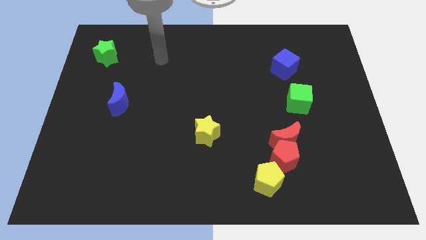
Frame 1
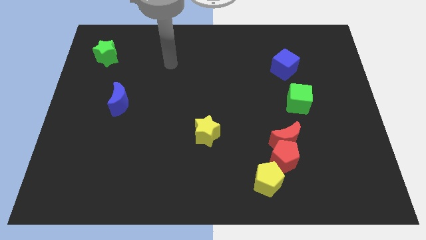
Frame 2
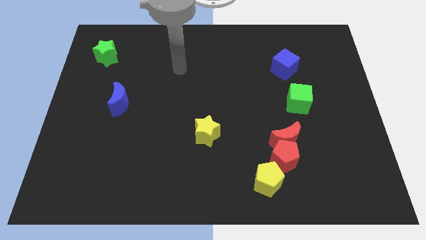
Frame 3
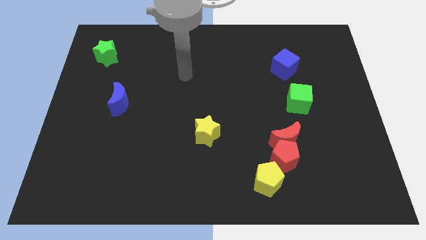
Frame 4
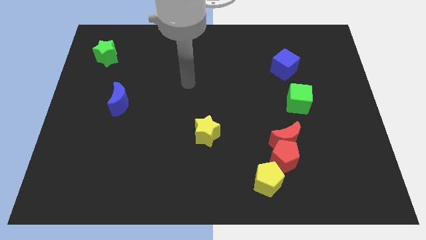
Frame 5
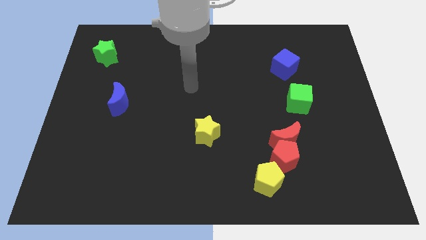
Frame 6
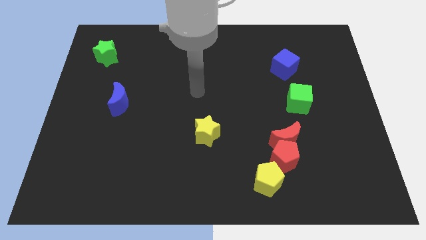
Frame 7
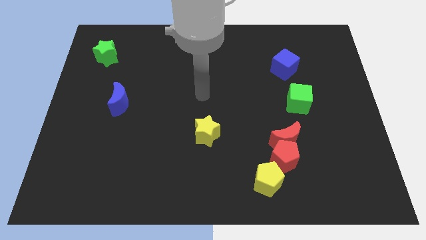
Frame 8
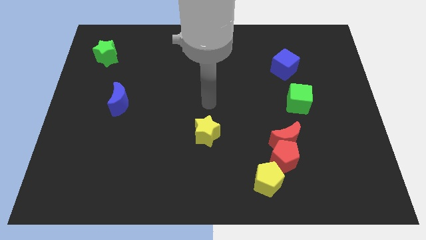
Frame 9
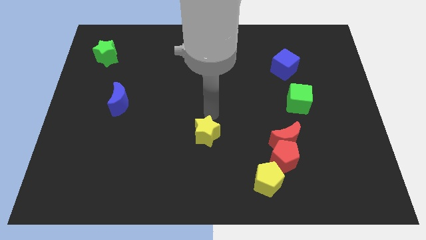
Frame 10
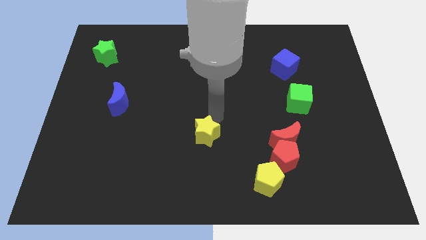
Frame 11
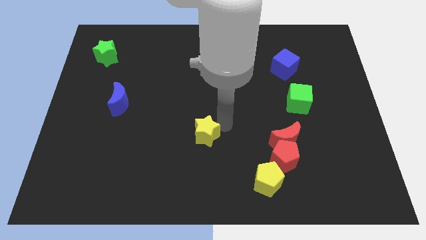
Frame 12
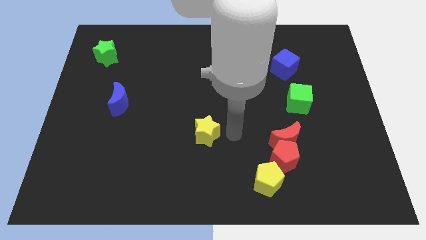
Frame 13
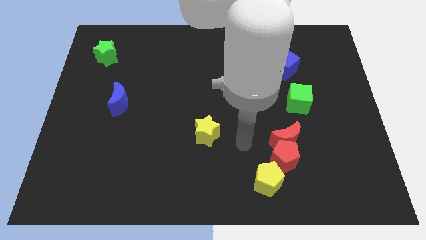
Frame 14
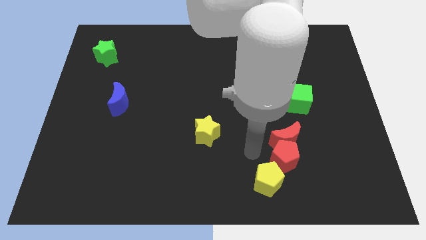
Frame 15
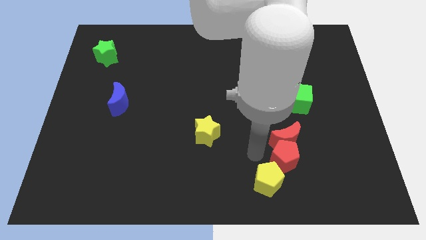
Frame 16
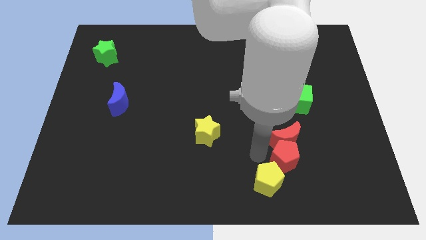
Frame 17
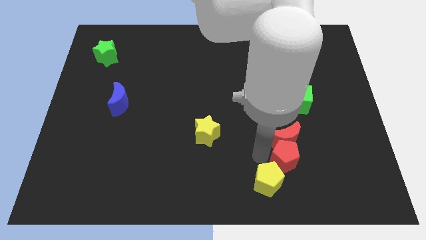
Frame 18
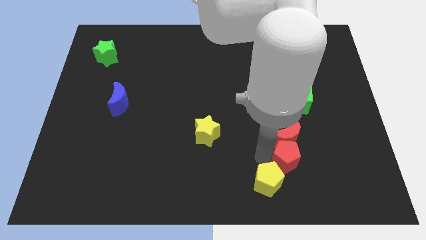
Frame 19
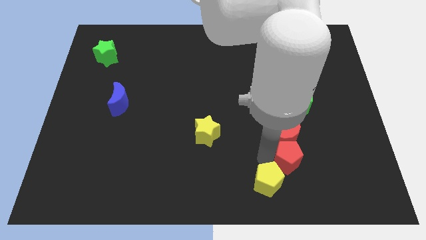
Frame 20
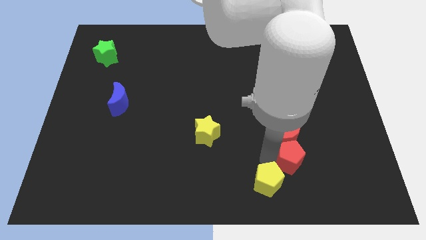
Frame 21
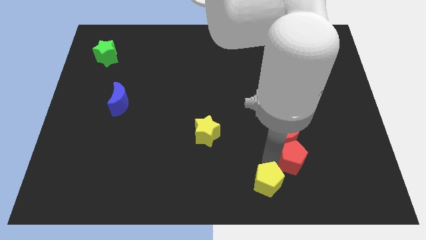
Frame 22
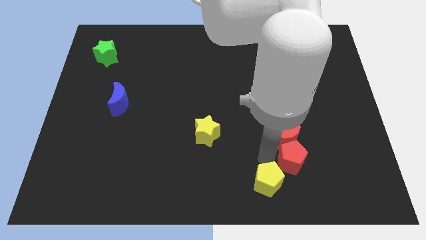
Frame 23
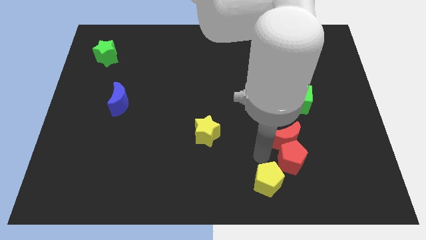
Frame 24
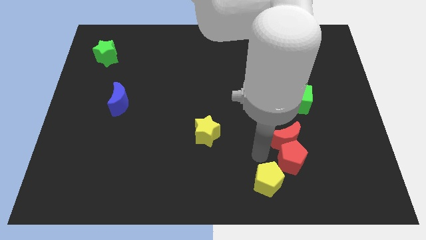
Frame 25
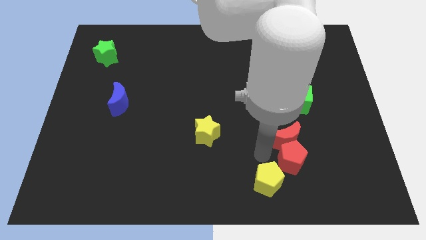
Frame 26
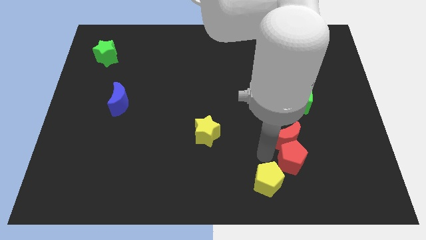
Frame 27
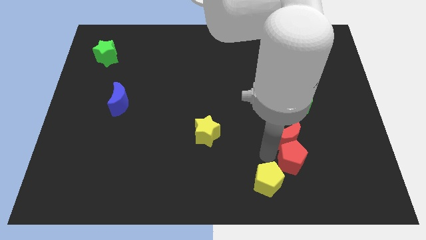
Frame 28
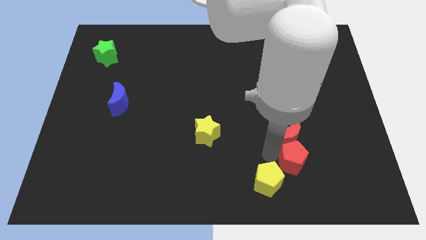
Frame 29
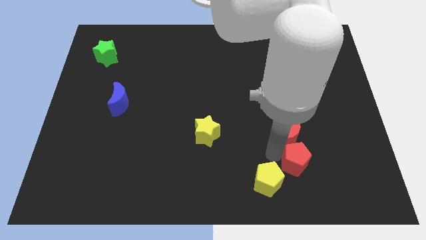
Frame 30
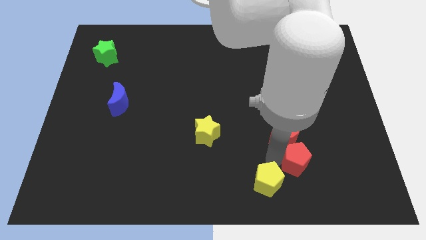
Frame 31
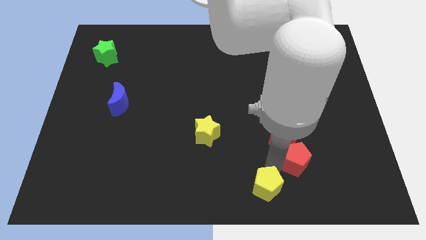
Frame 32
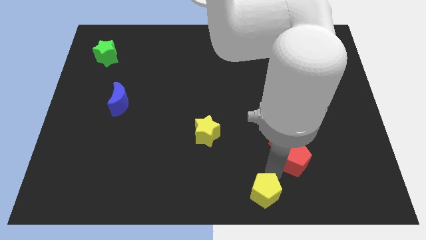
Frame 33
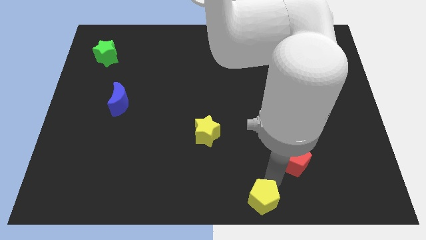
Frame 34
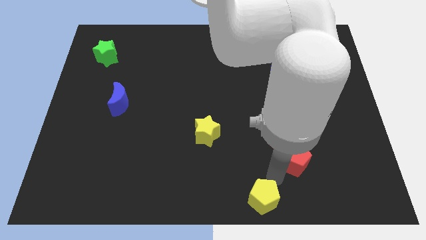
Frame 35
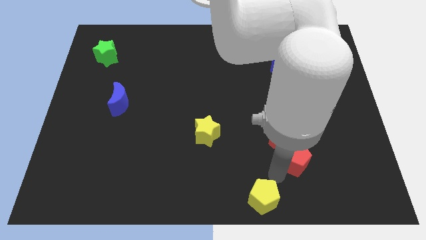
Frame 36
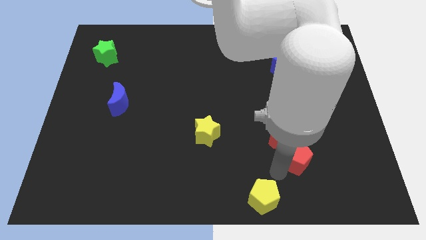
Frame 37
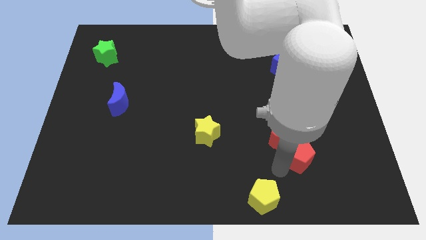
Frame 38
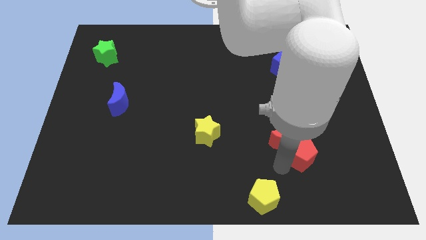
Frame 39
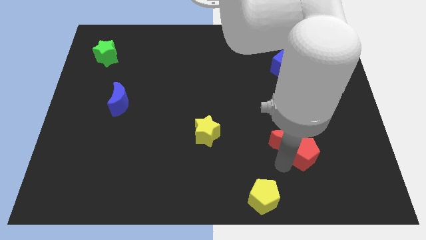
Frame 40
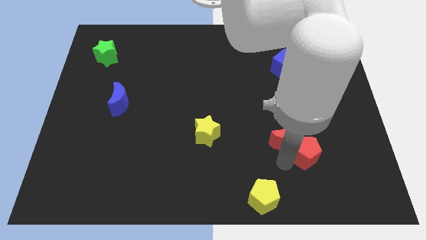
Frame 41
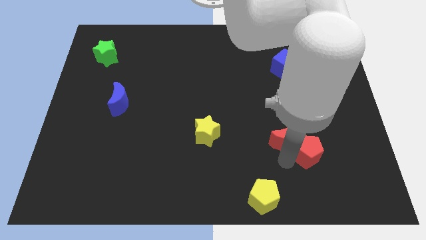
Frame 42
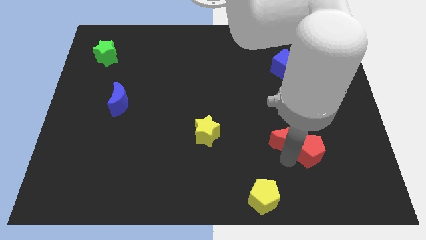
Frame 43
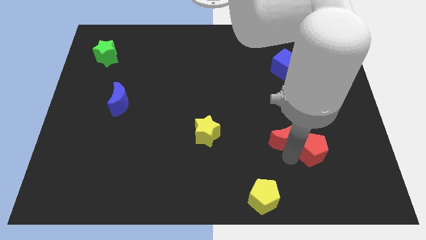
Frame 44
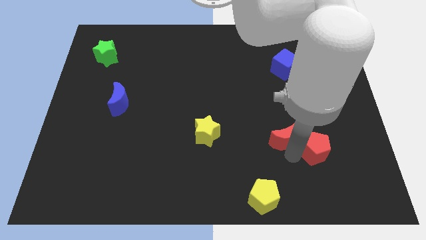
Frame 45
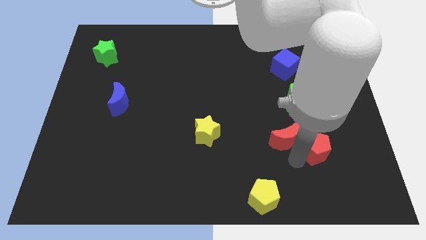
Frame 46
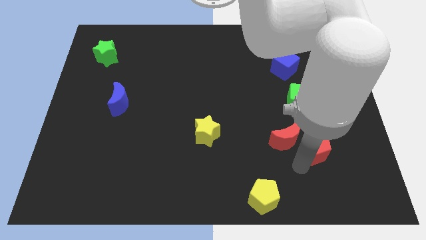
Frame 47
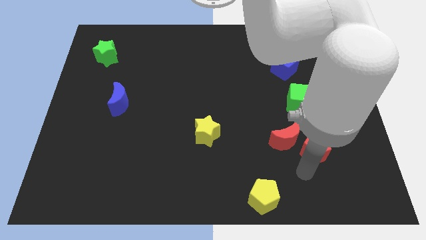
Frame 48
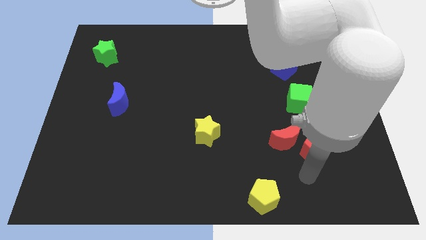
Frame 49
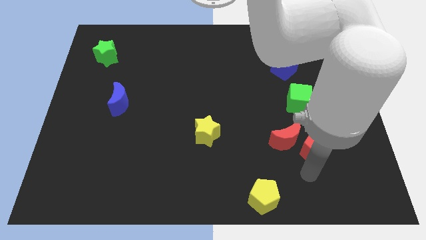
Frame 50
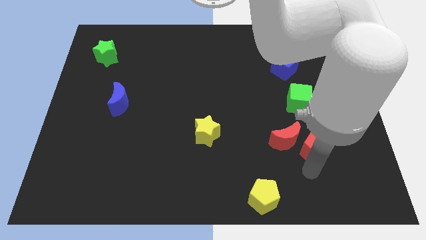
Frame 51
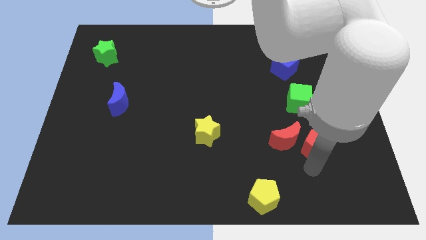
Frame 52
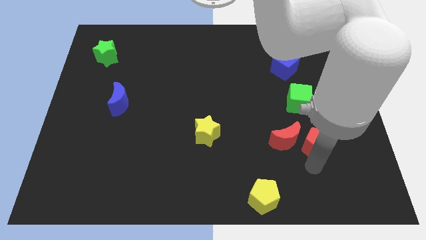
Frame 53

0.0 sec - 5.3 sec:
slightly push the red pentagon diagonally up and right

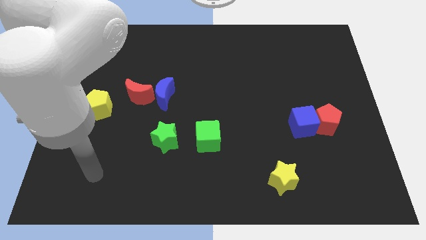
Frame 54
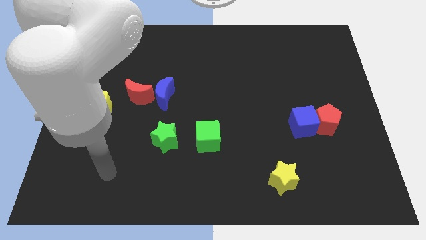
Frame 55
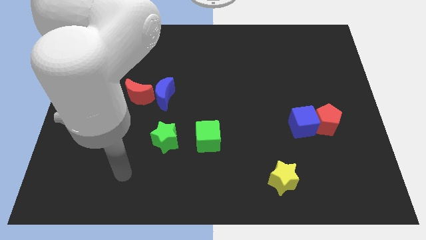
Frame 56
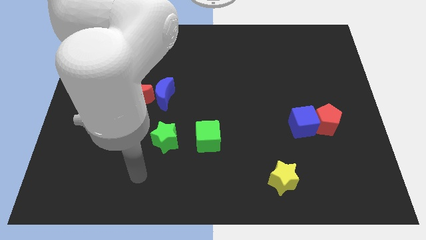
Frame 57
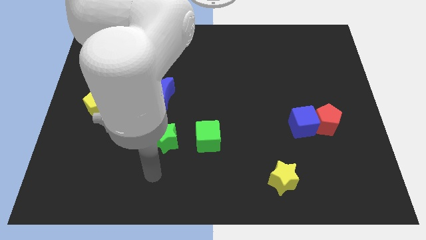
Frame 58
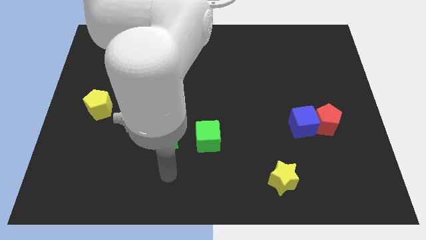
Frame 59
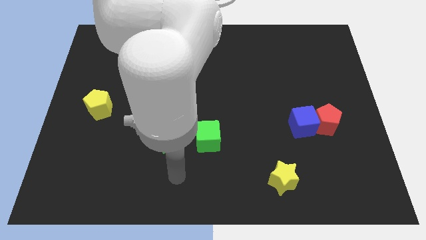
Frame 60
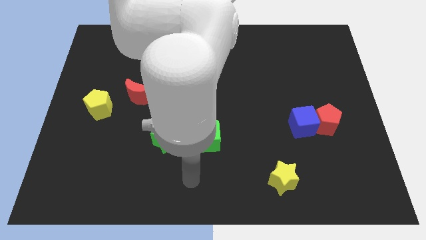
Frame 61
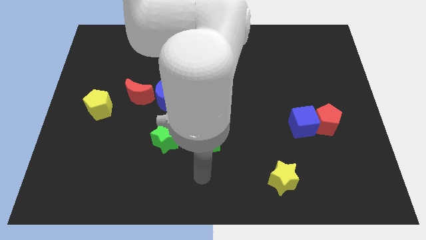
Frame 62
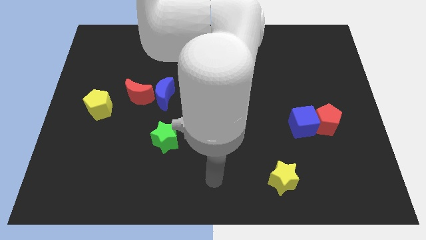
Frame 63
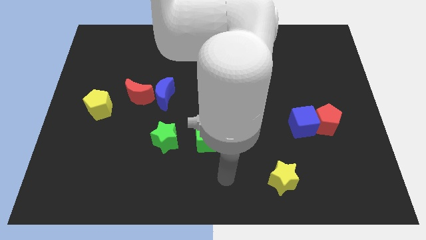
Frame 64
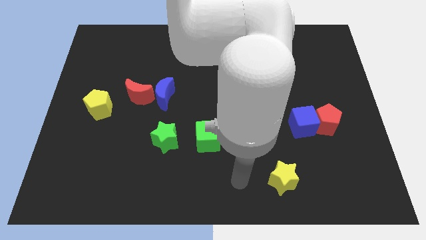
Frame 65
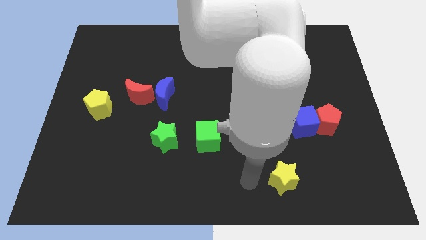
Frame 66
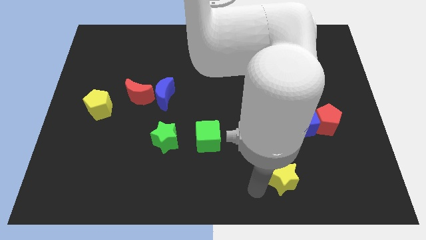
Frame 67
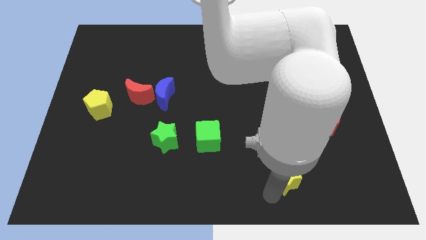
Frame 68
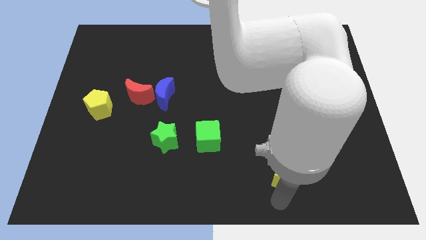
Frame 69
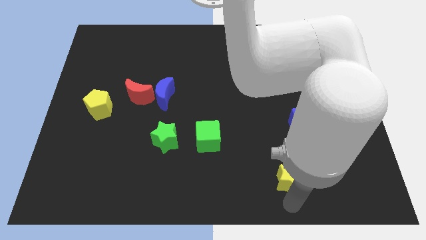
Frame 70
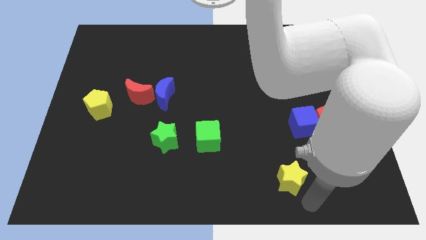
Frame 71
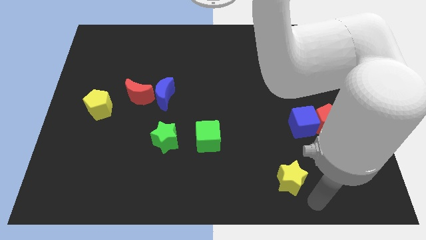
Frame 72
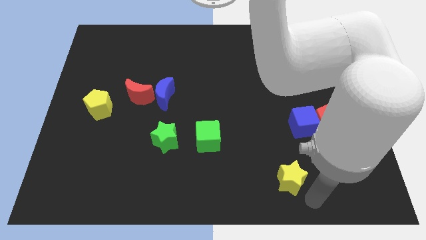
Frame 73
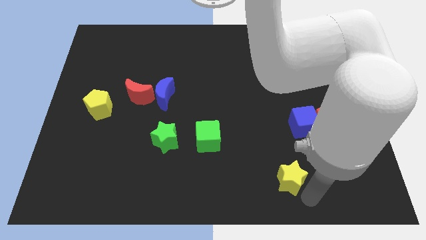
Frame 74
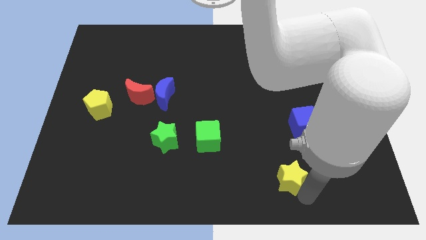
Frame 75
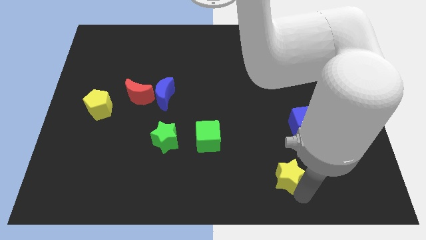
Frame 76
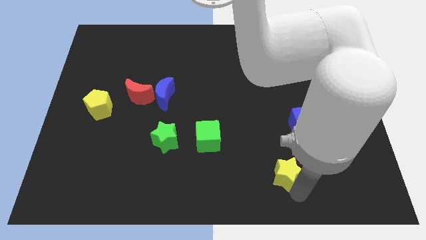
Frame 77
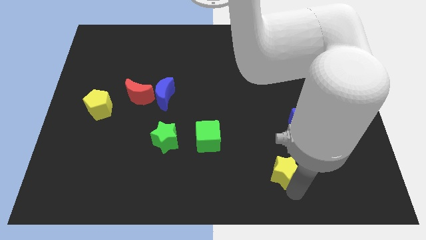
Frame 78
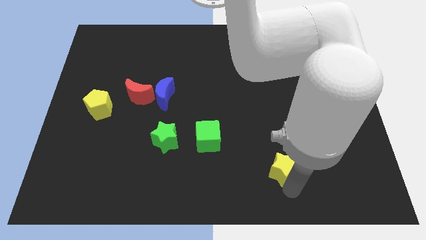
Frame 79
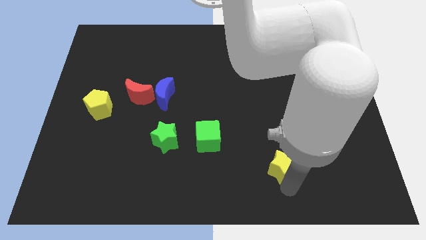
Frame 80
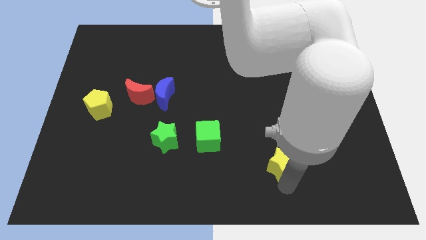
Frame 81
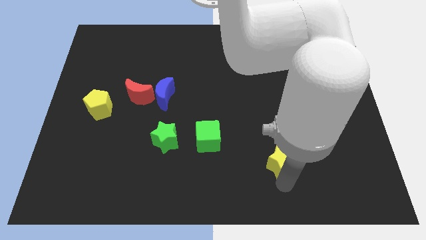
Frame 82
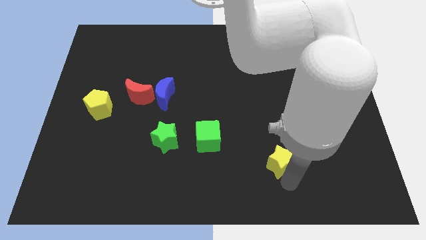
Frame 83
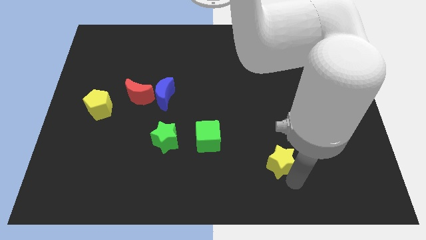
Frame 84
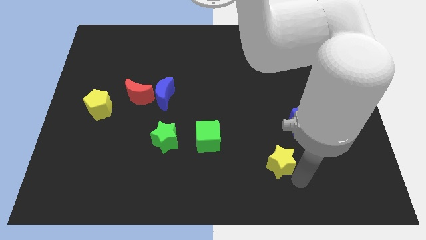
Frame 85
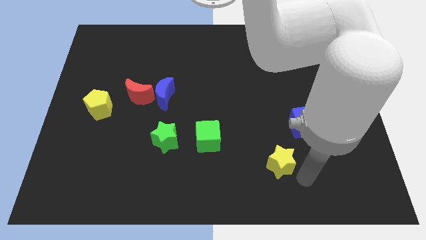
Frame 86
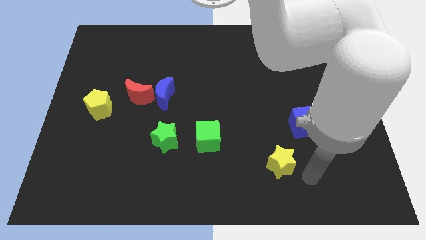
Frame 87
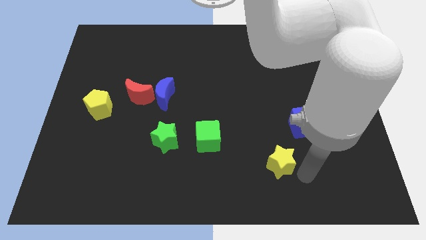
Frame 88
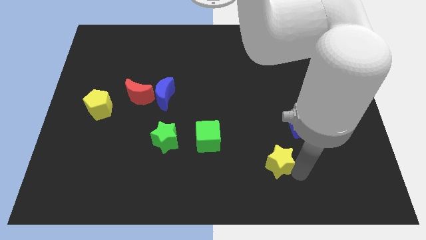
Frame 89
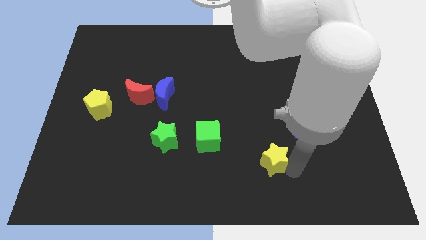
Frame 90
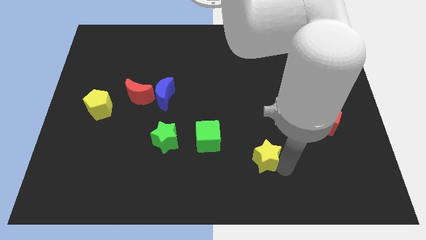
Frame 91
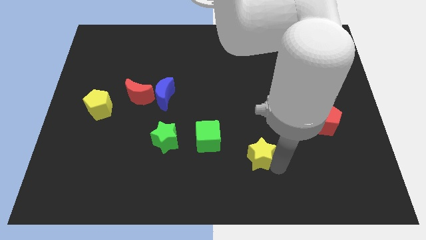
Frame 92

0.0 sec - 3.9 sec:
move the yellow star upwards and then to the left a little
